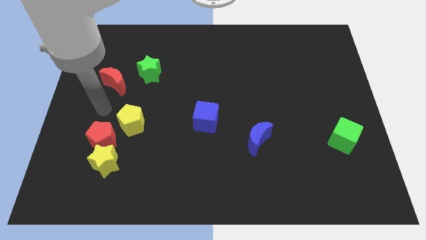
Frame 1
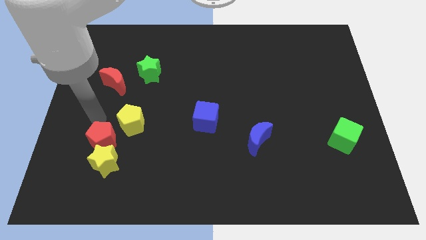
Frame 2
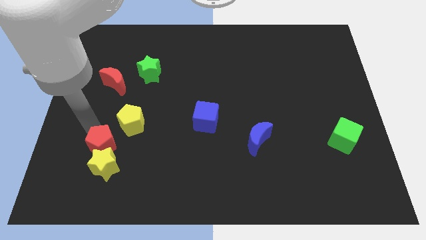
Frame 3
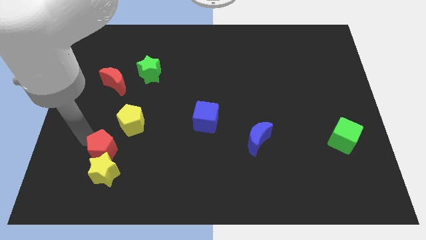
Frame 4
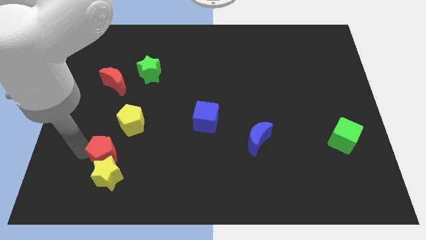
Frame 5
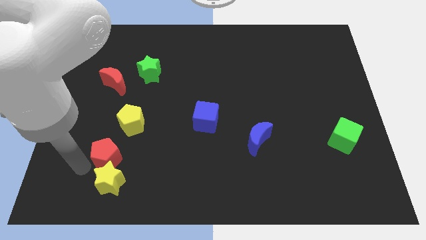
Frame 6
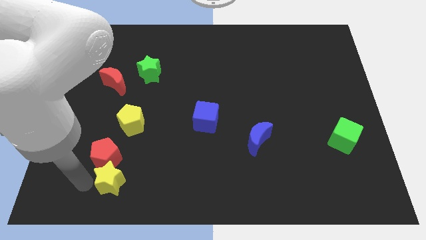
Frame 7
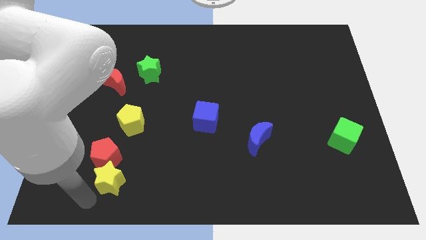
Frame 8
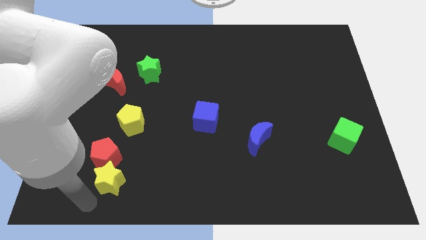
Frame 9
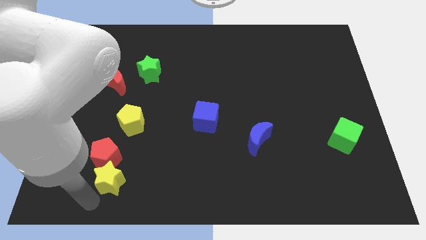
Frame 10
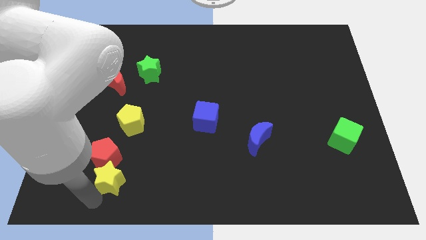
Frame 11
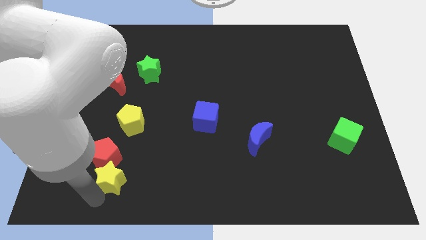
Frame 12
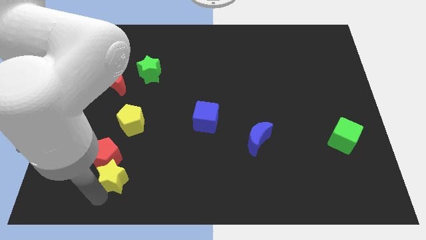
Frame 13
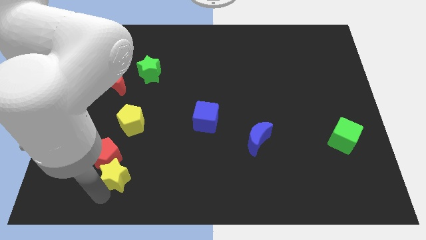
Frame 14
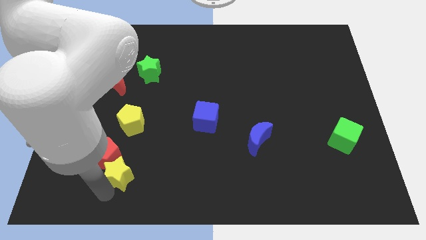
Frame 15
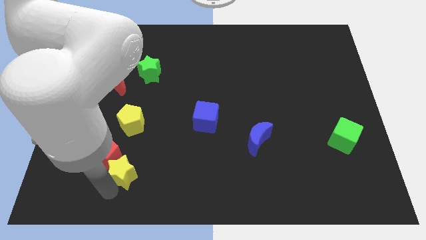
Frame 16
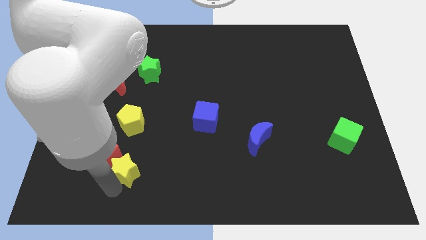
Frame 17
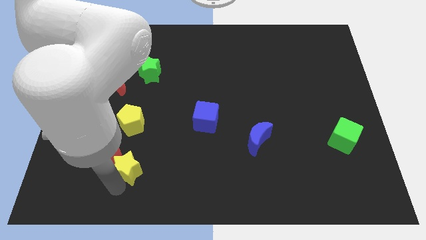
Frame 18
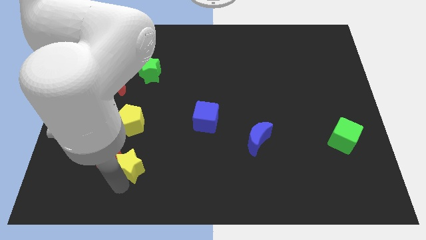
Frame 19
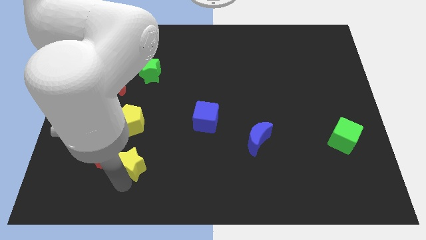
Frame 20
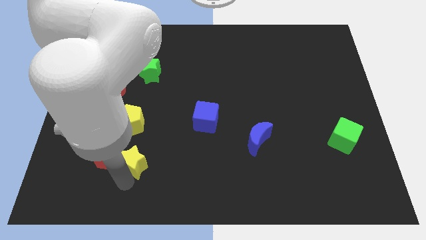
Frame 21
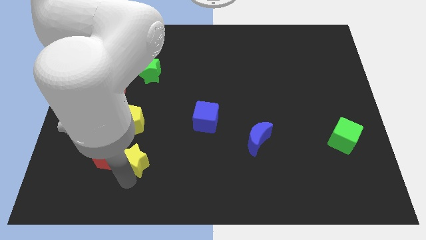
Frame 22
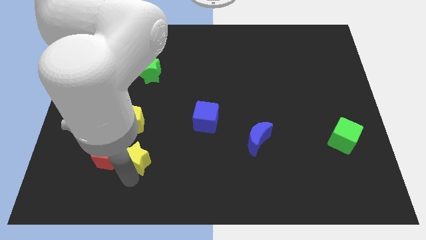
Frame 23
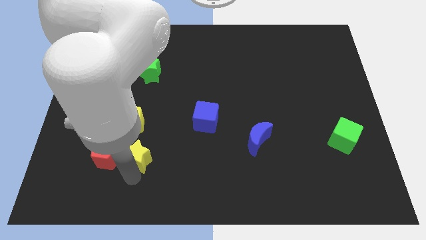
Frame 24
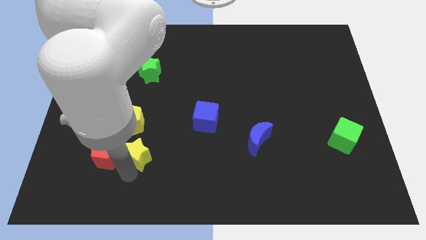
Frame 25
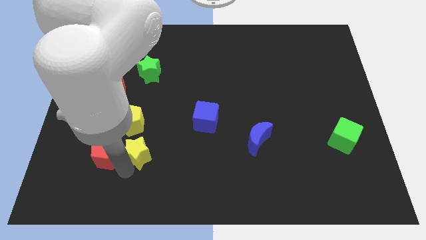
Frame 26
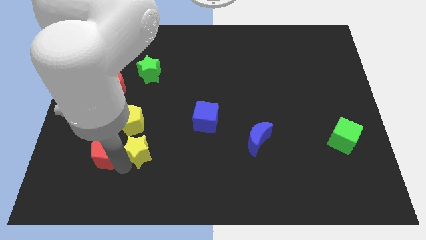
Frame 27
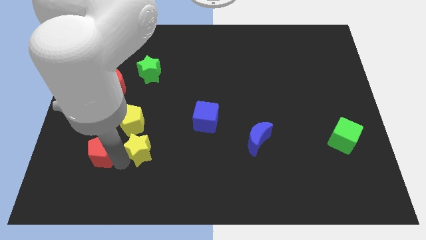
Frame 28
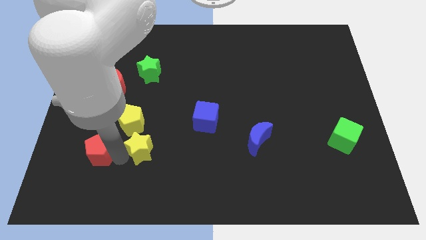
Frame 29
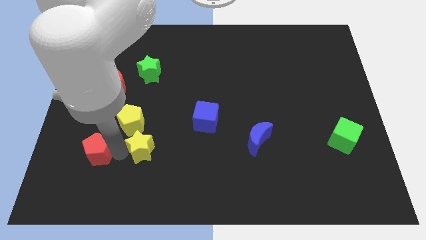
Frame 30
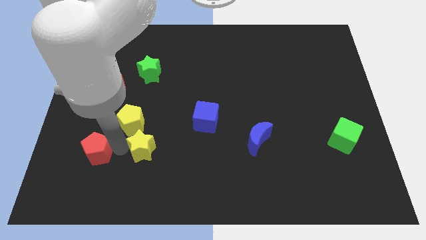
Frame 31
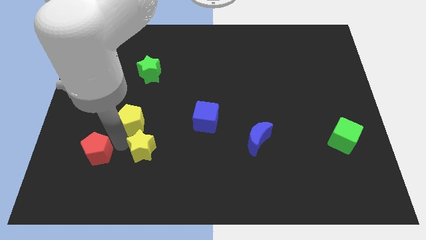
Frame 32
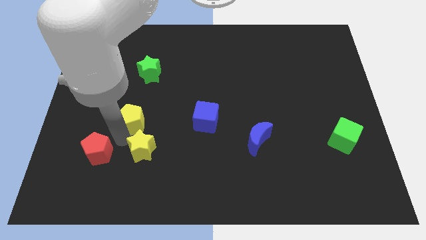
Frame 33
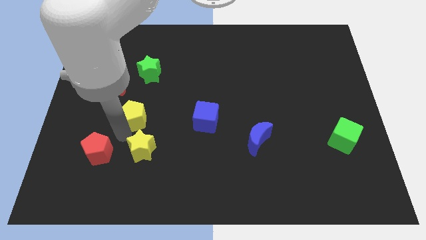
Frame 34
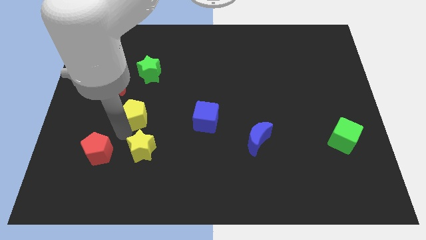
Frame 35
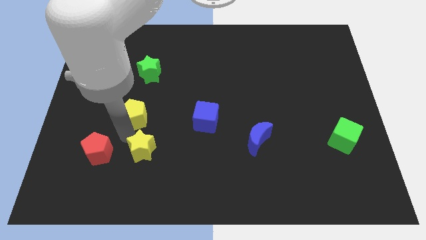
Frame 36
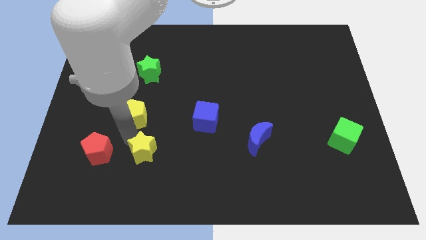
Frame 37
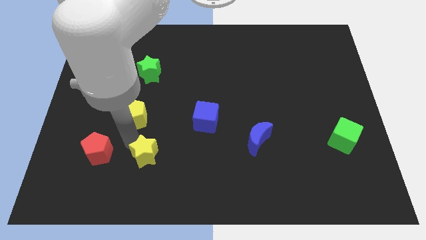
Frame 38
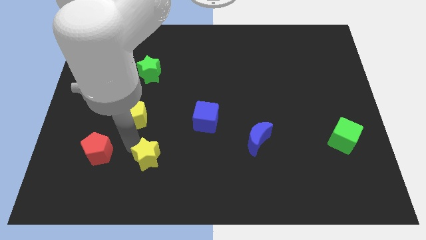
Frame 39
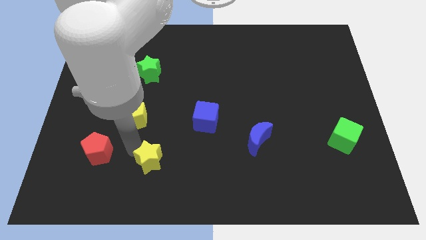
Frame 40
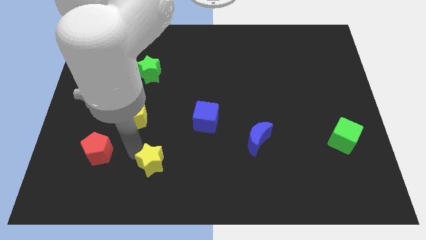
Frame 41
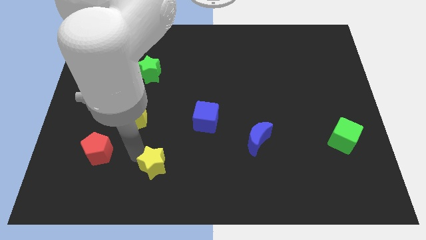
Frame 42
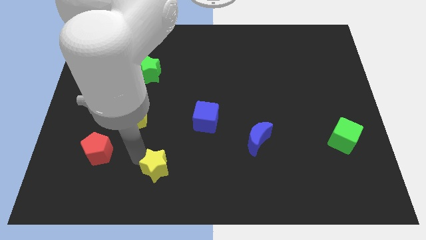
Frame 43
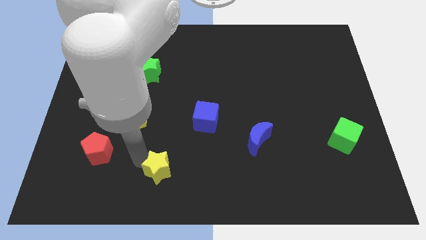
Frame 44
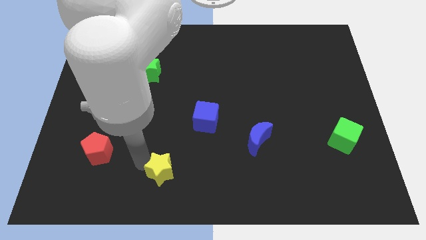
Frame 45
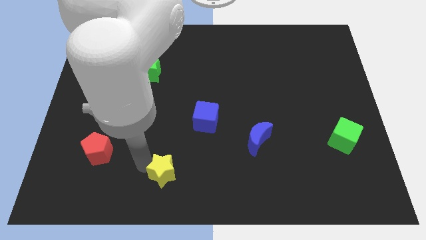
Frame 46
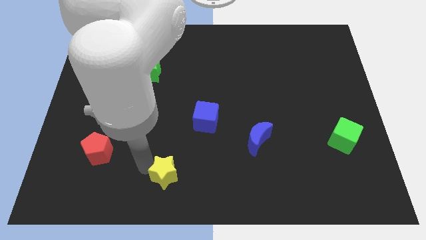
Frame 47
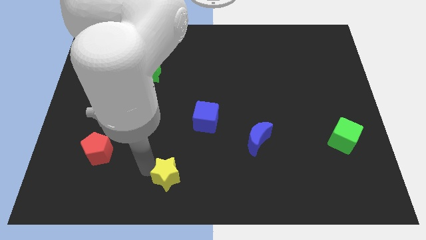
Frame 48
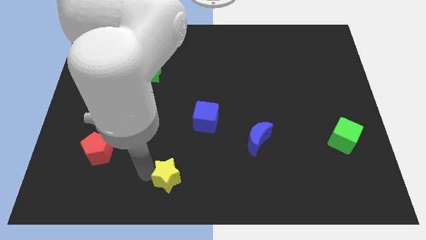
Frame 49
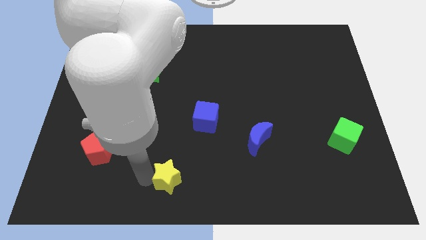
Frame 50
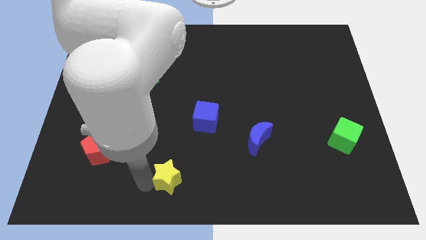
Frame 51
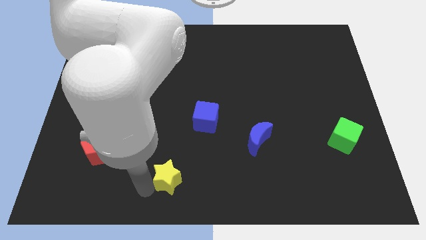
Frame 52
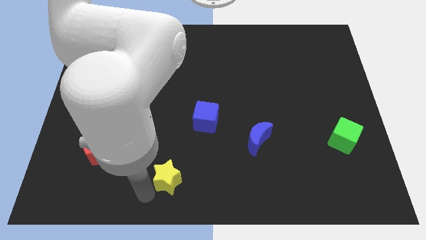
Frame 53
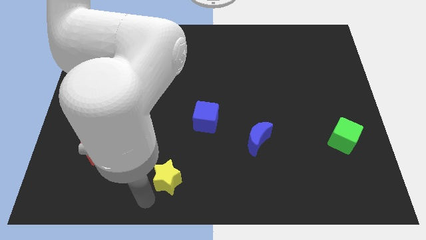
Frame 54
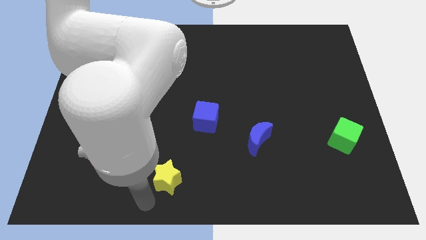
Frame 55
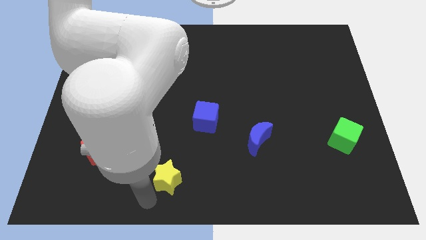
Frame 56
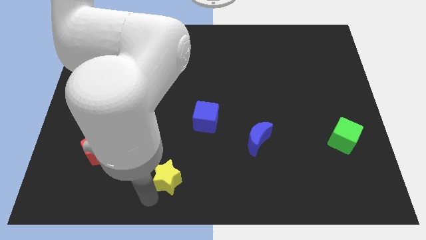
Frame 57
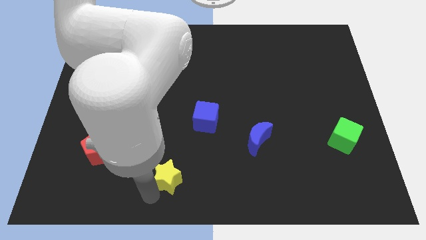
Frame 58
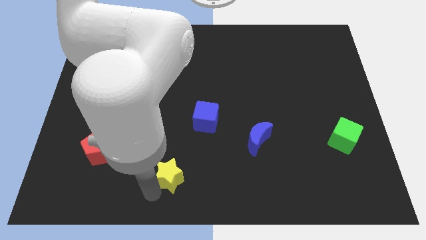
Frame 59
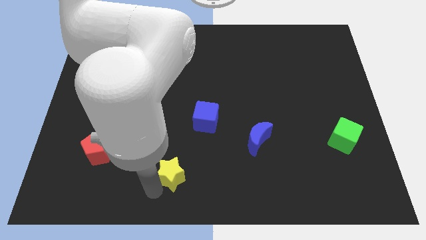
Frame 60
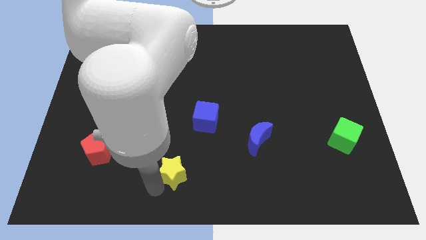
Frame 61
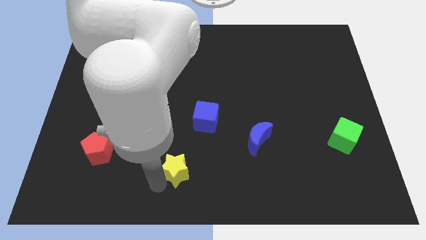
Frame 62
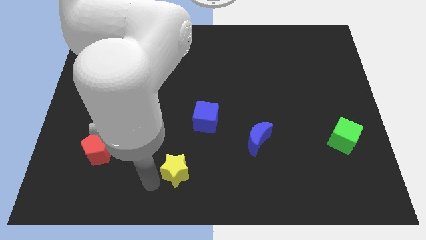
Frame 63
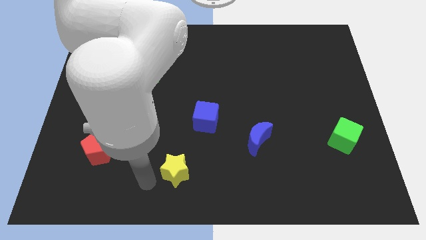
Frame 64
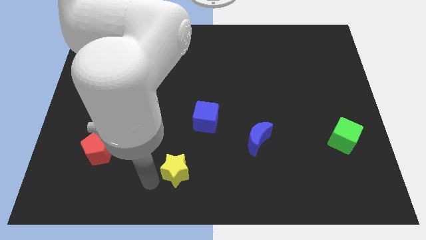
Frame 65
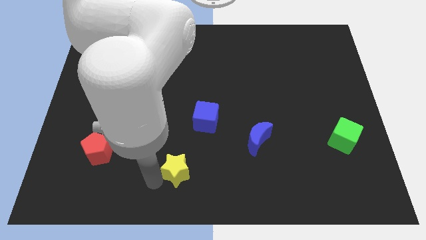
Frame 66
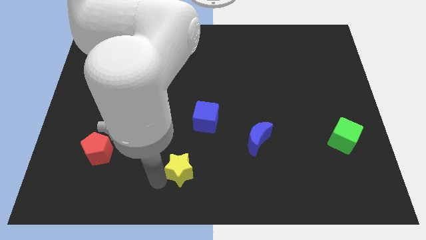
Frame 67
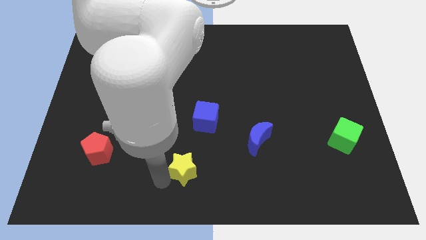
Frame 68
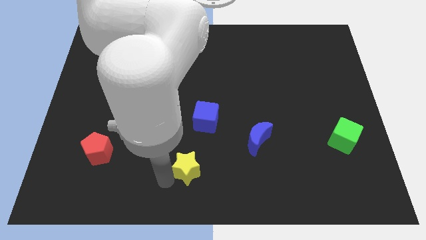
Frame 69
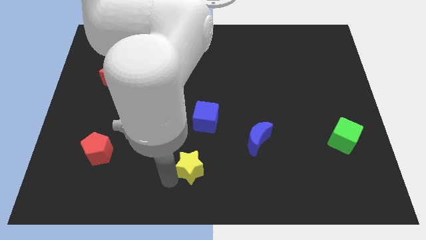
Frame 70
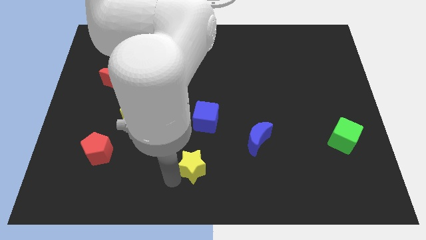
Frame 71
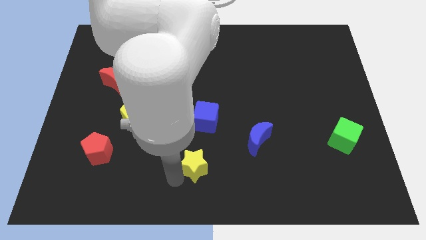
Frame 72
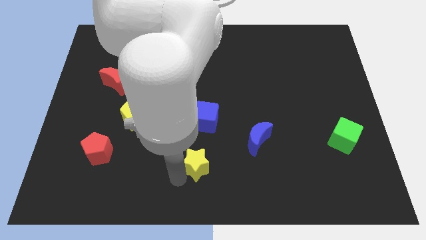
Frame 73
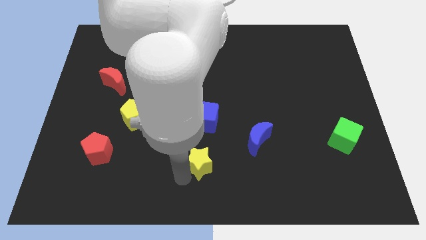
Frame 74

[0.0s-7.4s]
slide the yellow star right

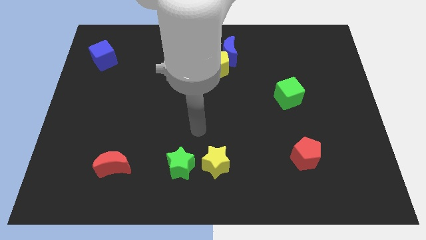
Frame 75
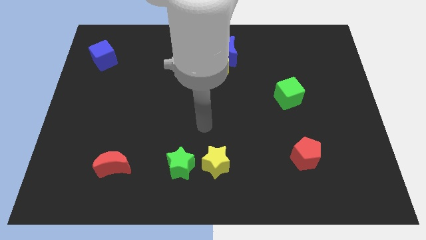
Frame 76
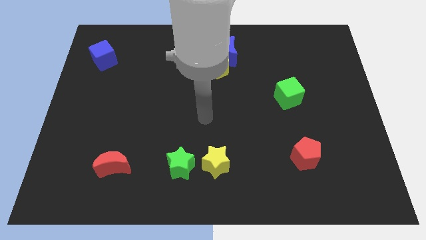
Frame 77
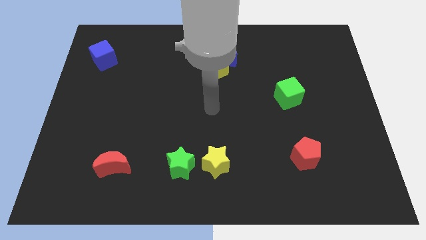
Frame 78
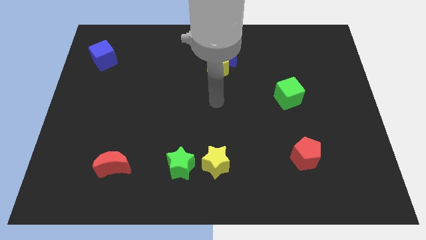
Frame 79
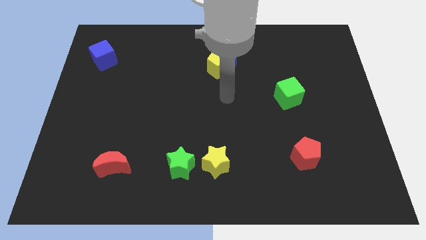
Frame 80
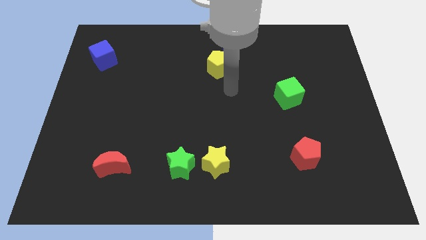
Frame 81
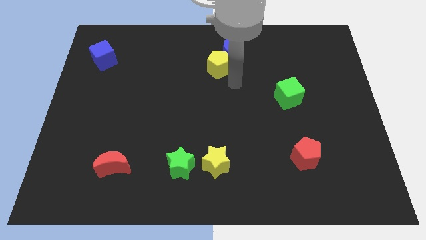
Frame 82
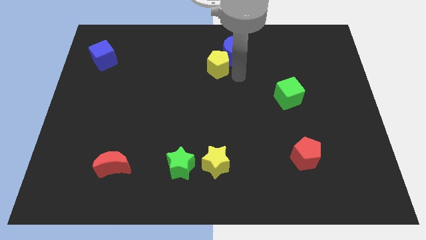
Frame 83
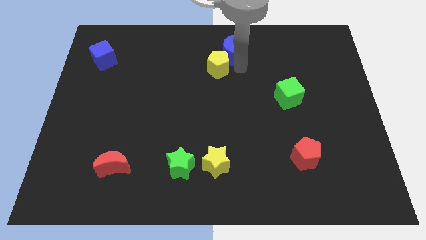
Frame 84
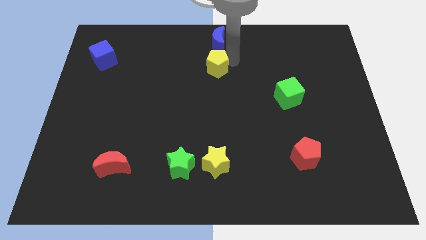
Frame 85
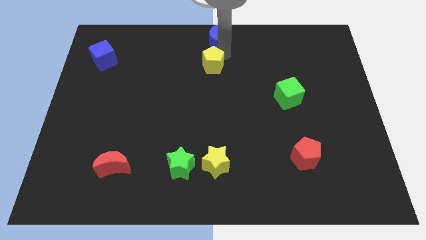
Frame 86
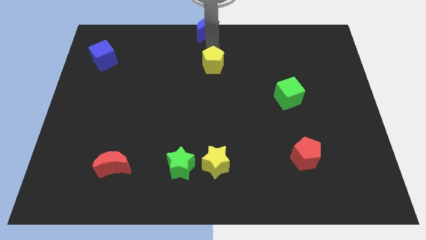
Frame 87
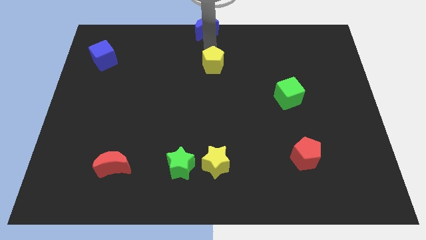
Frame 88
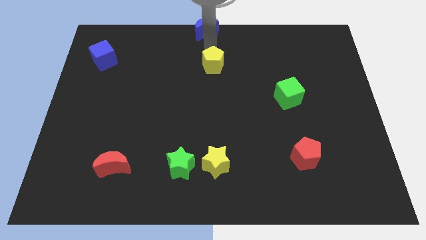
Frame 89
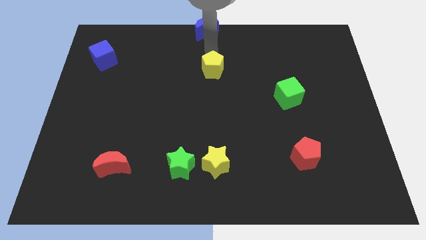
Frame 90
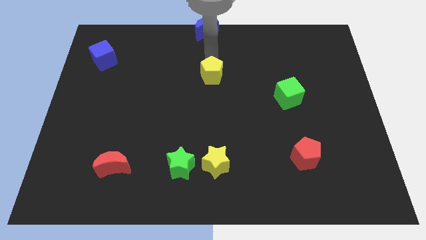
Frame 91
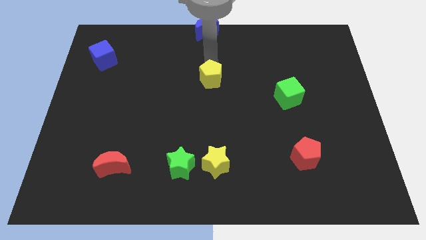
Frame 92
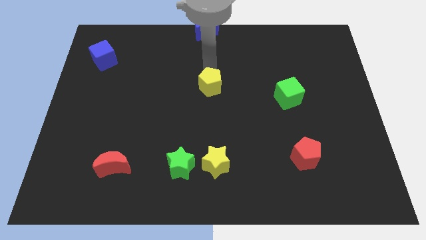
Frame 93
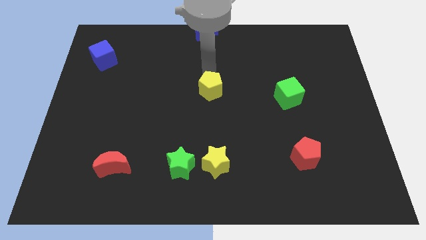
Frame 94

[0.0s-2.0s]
slide the yellow pentagon a little bit down
